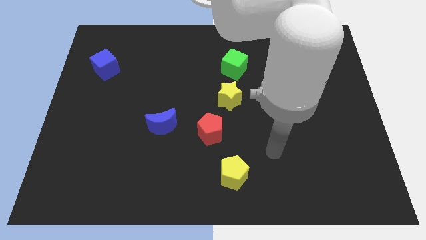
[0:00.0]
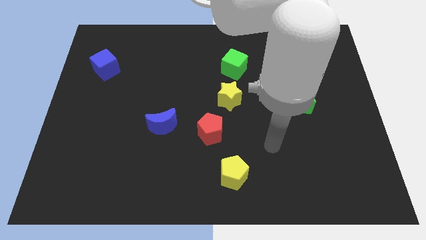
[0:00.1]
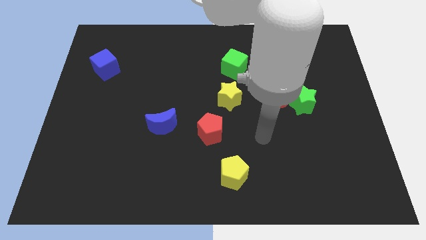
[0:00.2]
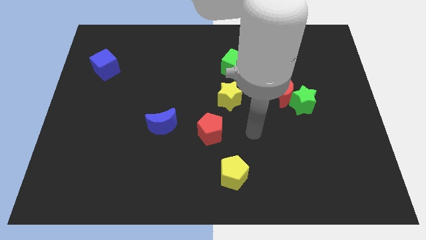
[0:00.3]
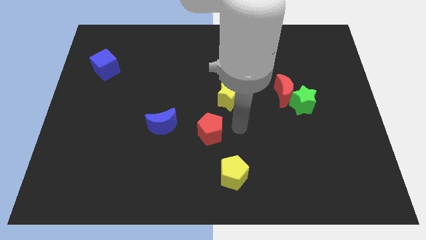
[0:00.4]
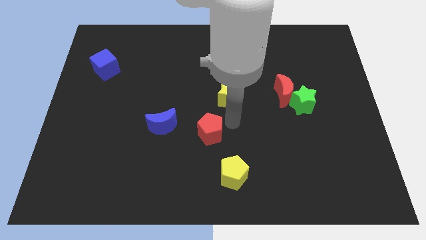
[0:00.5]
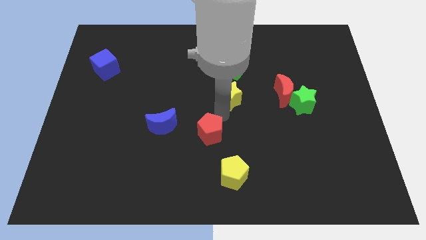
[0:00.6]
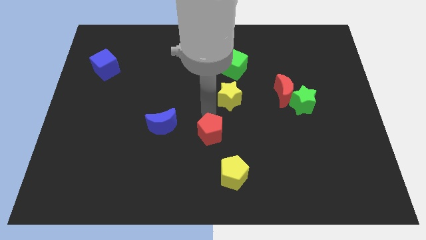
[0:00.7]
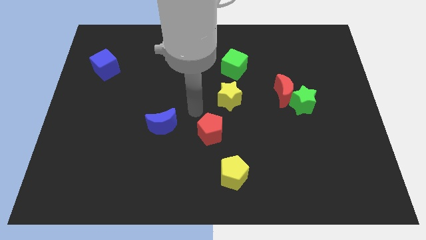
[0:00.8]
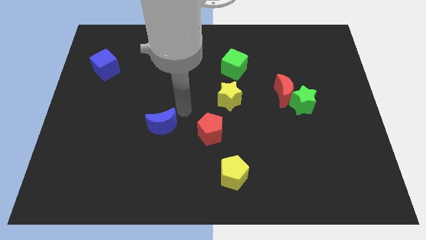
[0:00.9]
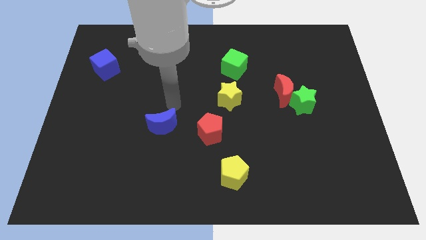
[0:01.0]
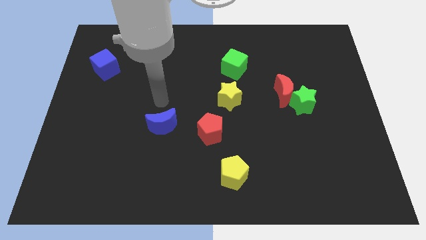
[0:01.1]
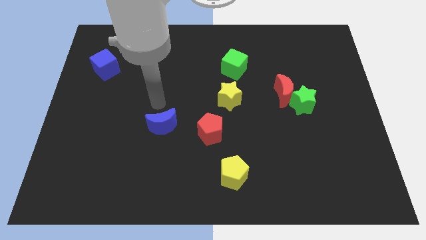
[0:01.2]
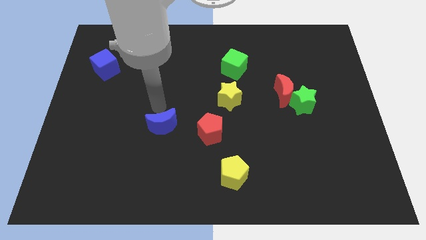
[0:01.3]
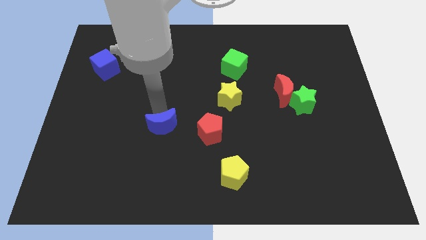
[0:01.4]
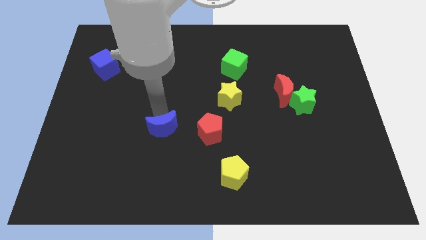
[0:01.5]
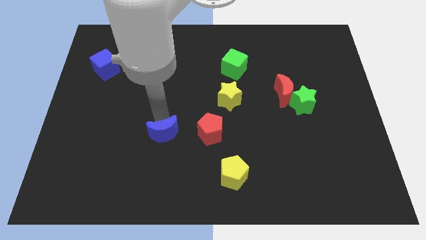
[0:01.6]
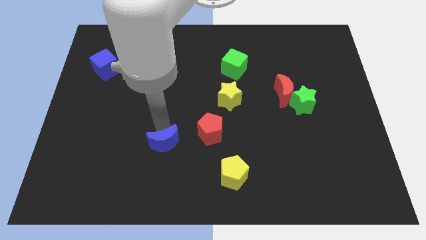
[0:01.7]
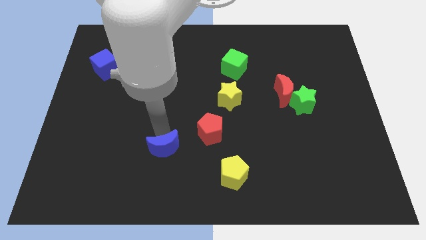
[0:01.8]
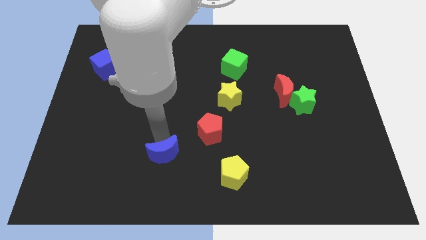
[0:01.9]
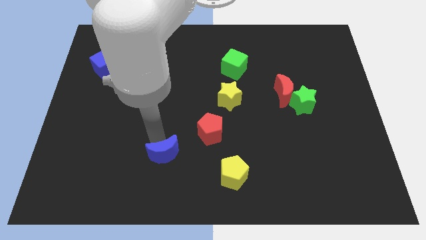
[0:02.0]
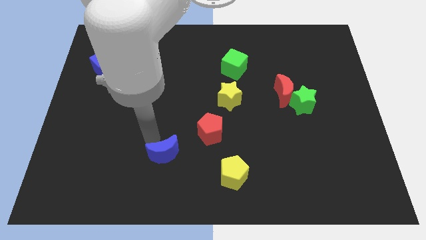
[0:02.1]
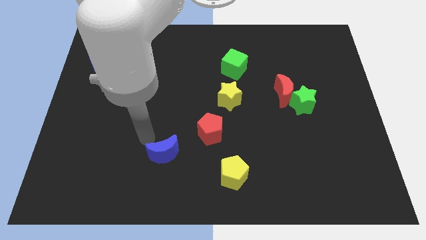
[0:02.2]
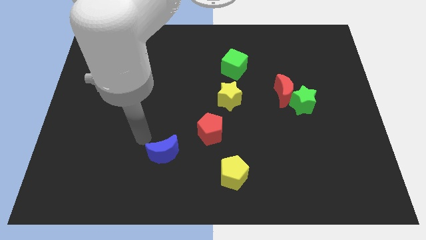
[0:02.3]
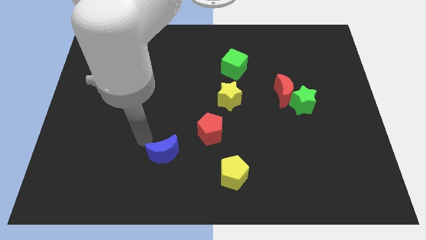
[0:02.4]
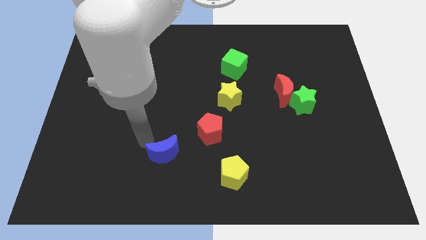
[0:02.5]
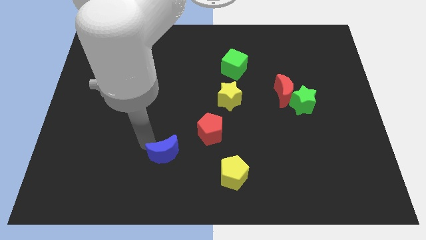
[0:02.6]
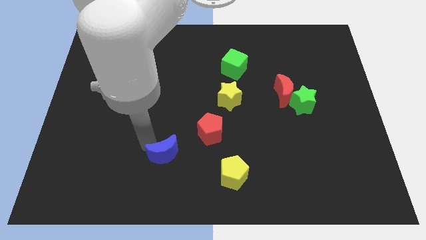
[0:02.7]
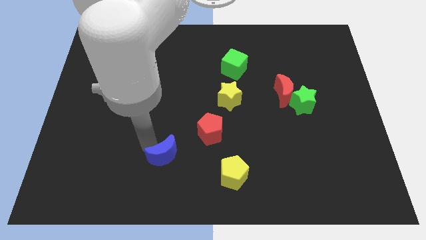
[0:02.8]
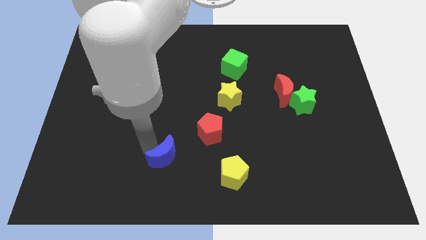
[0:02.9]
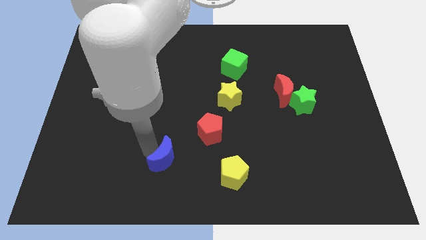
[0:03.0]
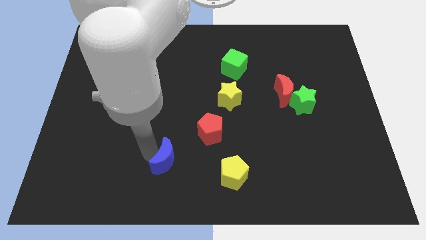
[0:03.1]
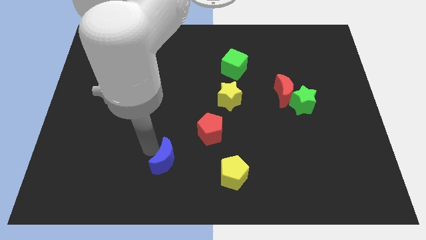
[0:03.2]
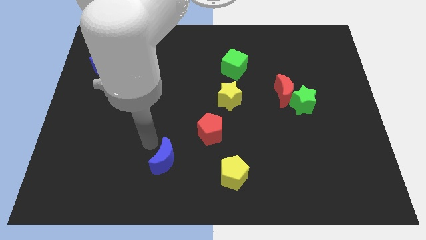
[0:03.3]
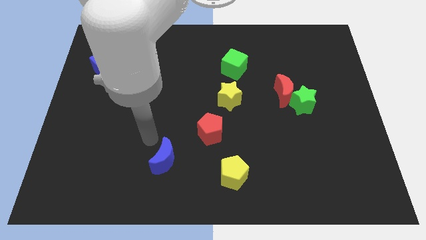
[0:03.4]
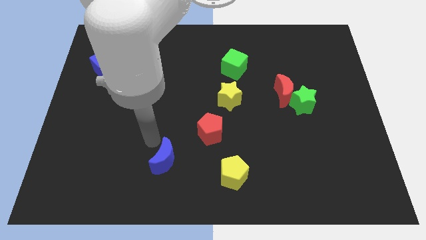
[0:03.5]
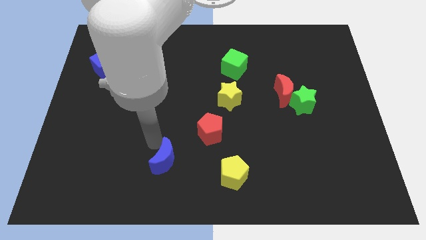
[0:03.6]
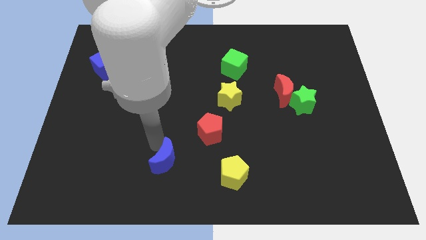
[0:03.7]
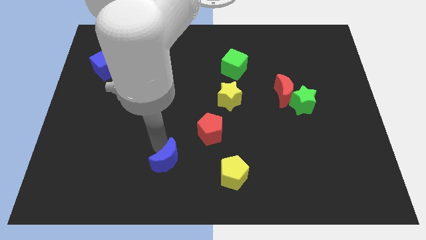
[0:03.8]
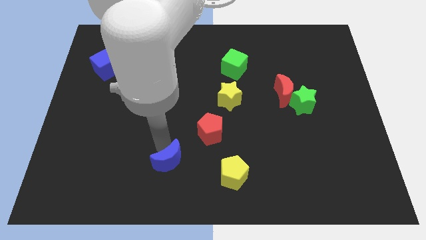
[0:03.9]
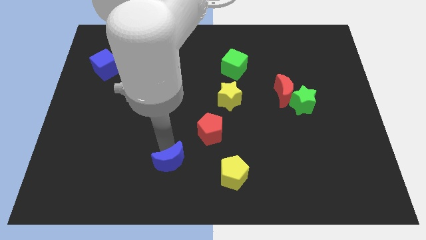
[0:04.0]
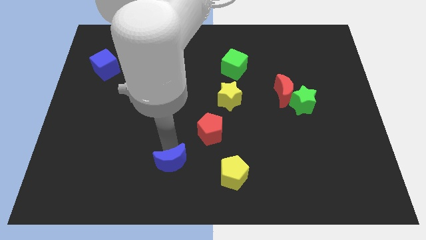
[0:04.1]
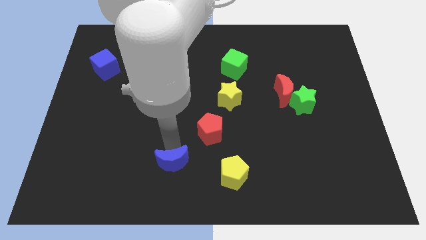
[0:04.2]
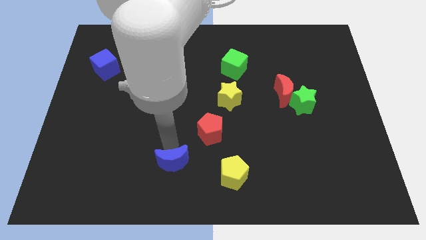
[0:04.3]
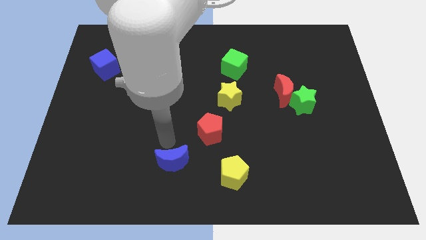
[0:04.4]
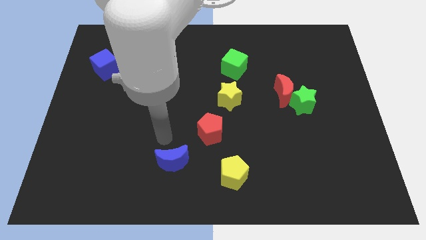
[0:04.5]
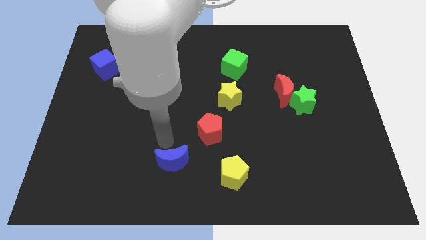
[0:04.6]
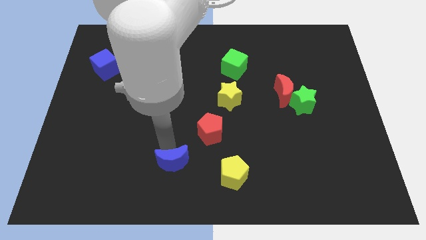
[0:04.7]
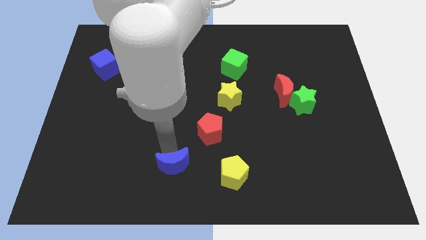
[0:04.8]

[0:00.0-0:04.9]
put the blue moon to the bottom

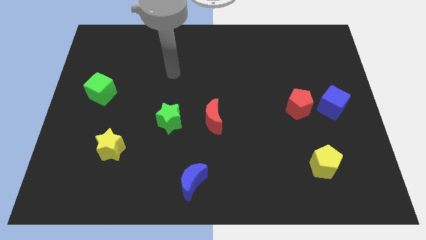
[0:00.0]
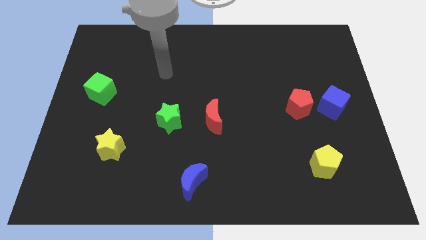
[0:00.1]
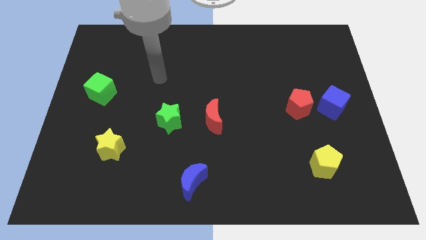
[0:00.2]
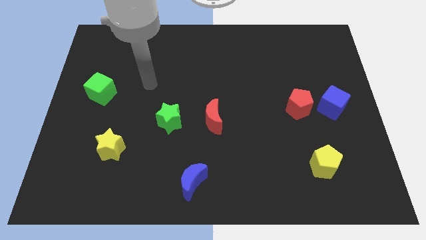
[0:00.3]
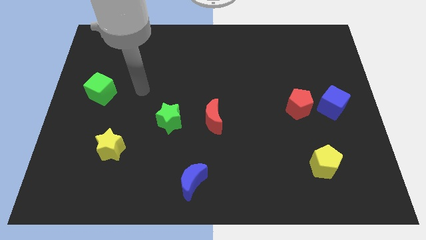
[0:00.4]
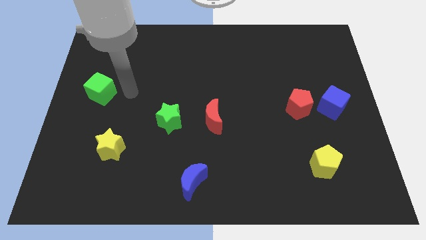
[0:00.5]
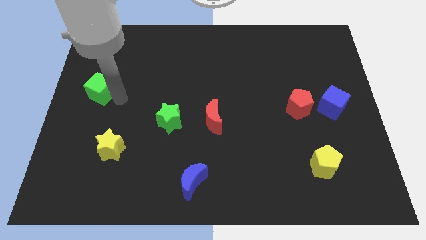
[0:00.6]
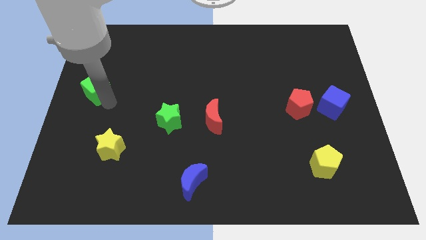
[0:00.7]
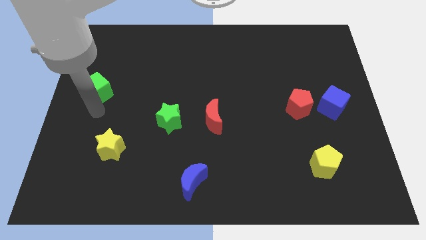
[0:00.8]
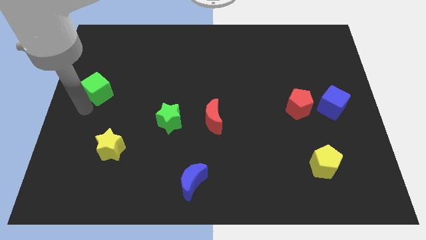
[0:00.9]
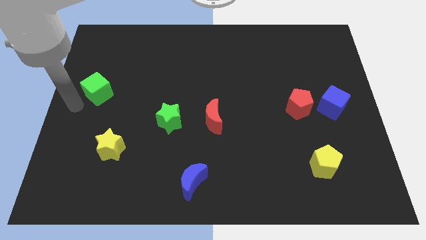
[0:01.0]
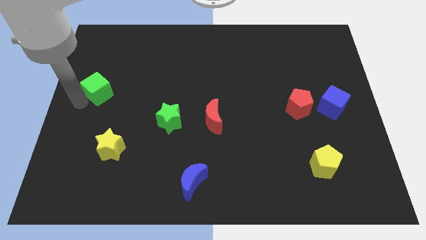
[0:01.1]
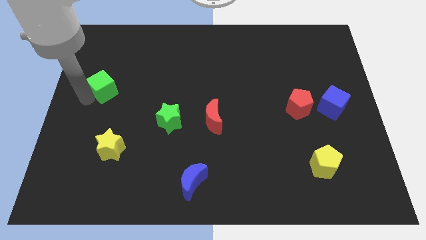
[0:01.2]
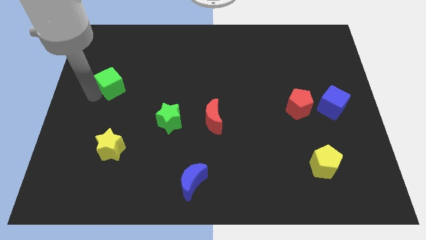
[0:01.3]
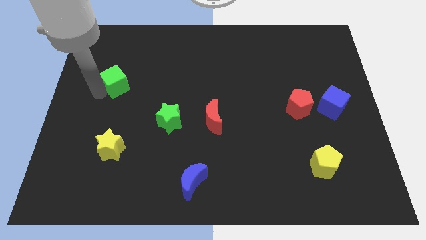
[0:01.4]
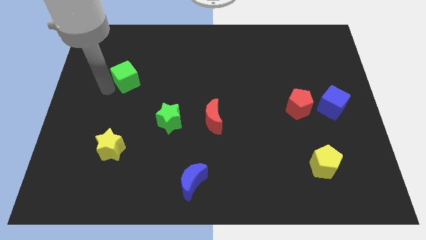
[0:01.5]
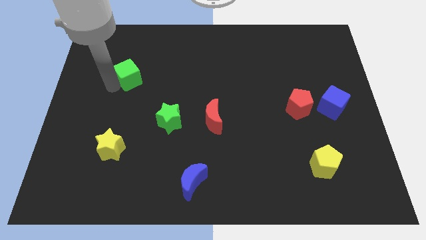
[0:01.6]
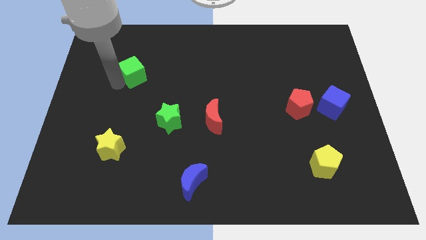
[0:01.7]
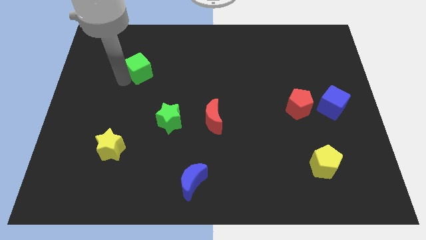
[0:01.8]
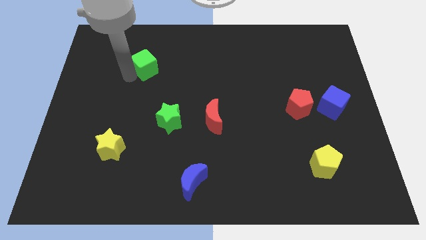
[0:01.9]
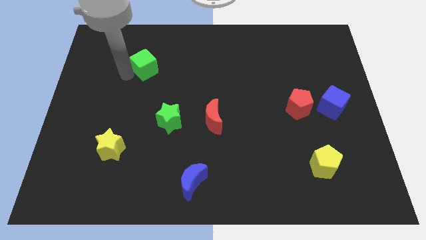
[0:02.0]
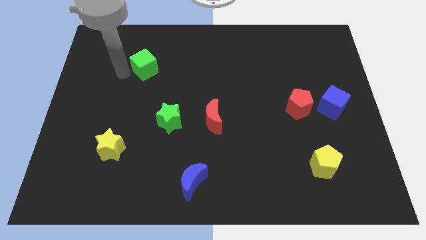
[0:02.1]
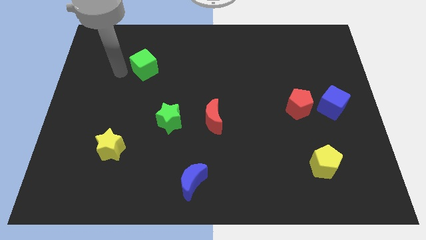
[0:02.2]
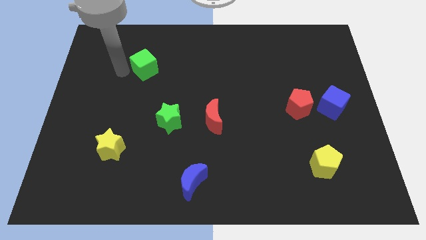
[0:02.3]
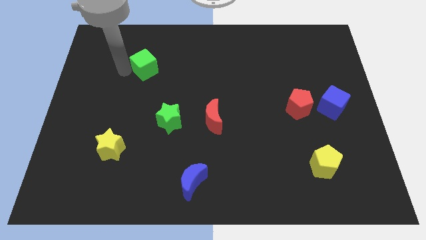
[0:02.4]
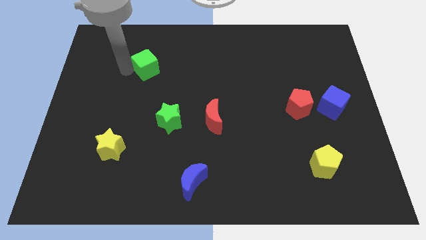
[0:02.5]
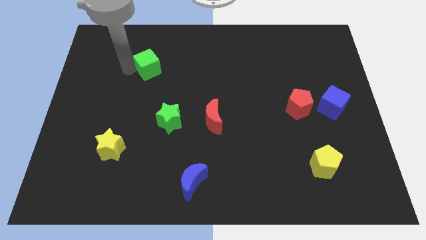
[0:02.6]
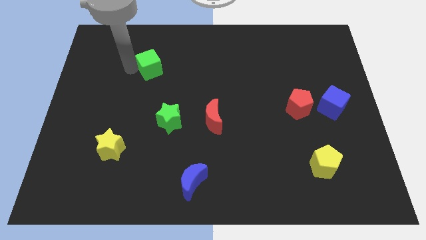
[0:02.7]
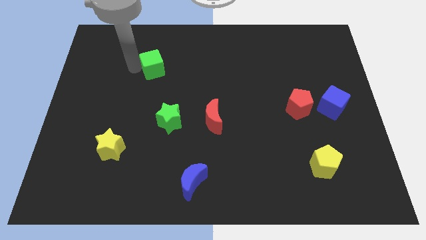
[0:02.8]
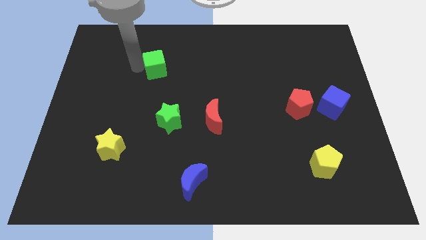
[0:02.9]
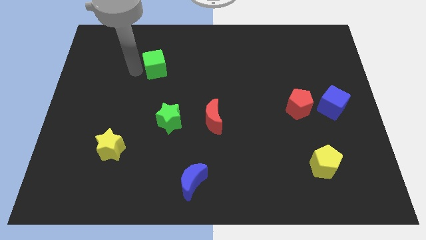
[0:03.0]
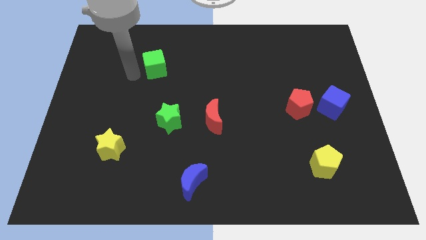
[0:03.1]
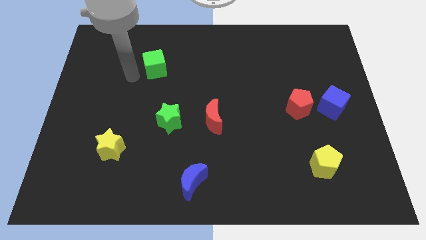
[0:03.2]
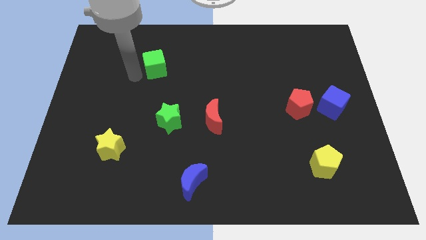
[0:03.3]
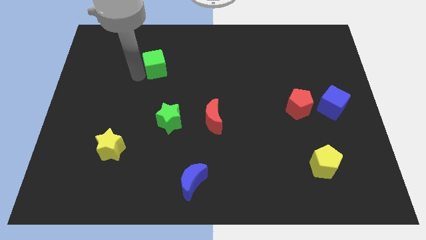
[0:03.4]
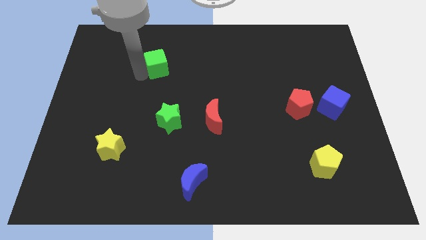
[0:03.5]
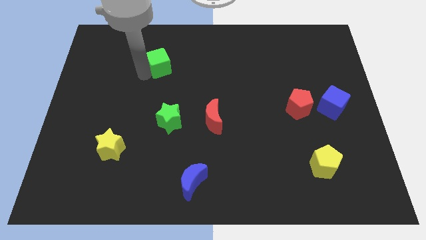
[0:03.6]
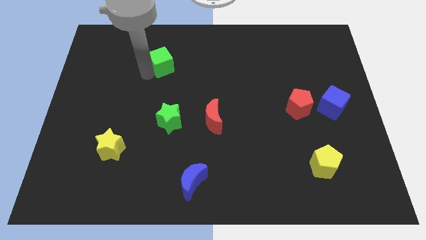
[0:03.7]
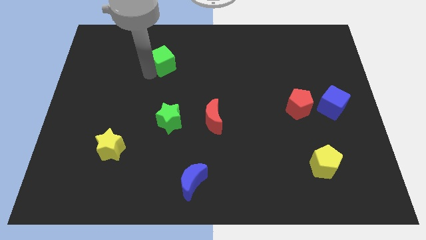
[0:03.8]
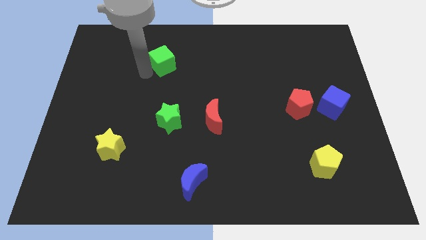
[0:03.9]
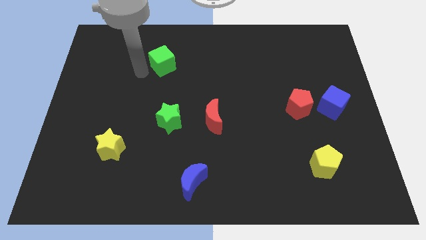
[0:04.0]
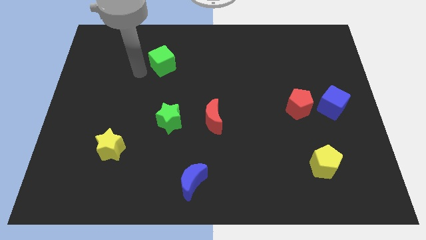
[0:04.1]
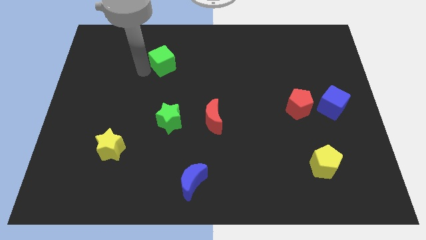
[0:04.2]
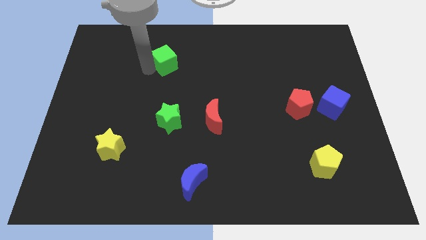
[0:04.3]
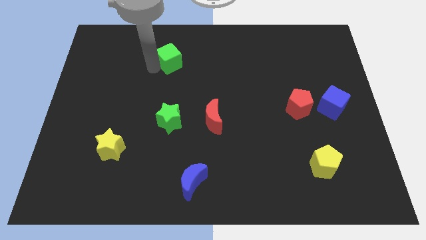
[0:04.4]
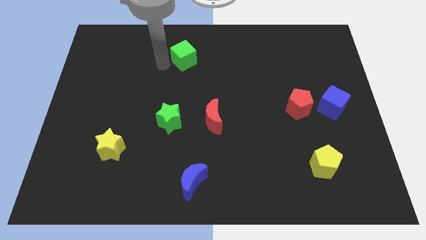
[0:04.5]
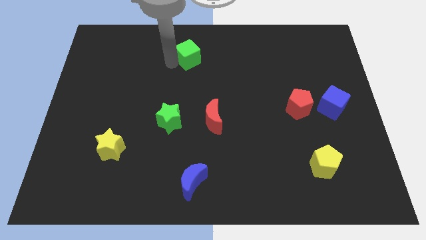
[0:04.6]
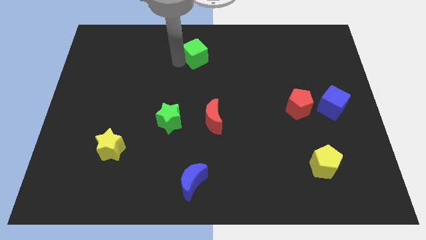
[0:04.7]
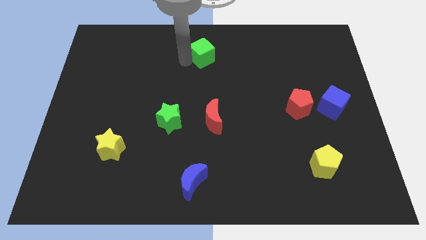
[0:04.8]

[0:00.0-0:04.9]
move the green cube to the top side
